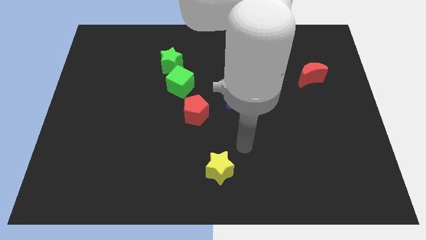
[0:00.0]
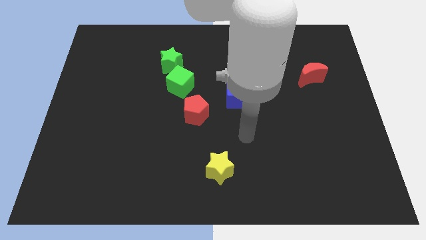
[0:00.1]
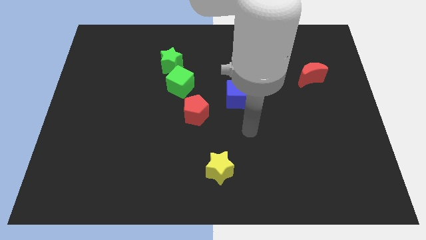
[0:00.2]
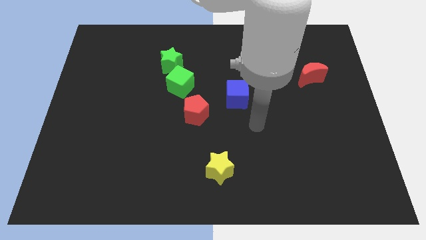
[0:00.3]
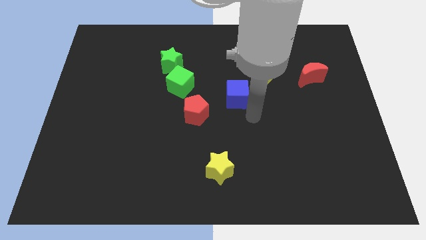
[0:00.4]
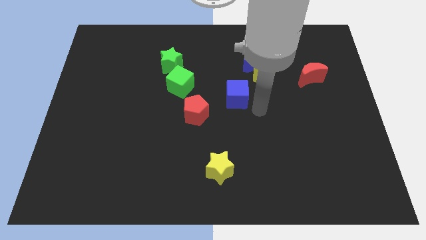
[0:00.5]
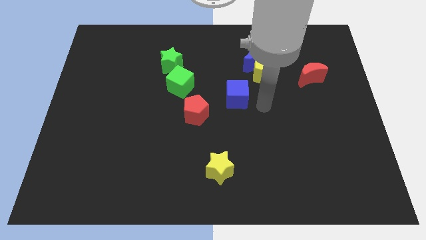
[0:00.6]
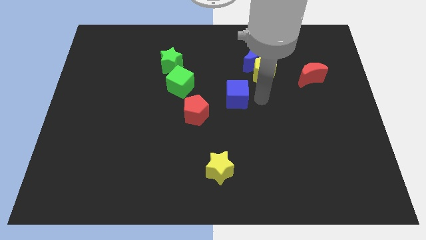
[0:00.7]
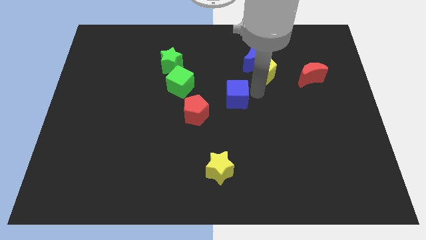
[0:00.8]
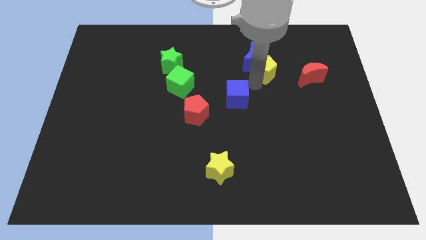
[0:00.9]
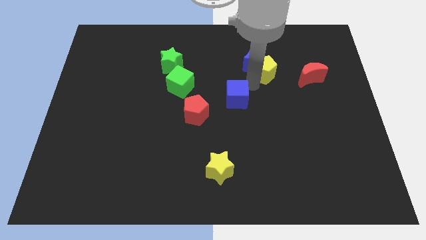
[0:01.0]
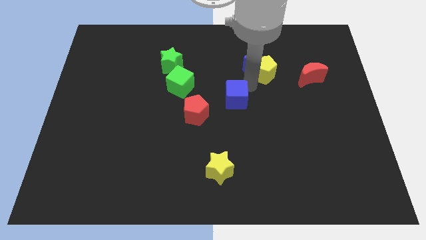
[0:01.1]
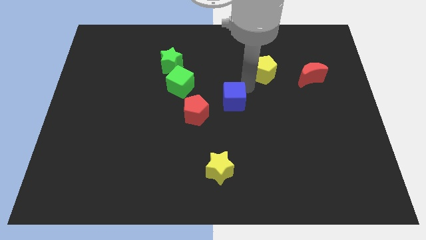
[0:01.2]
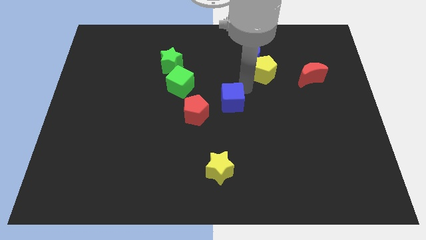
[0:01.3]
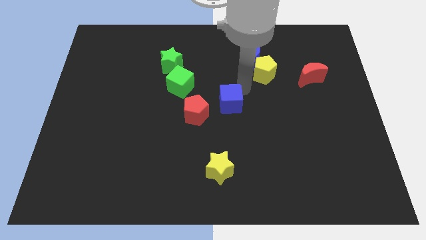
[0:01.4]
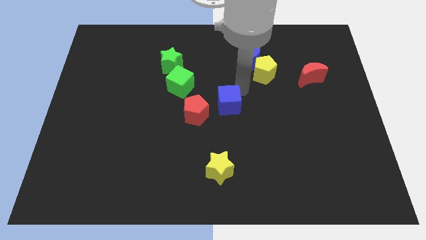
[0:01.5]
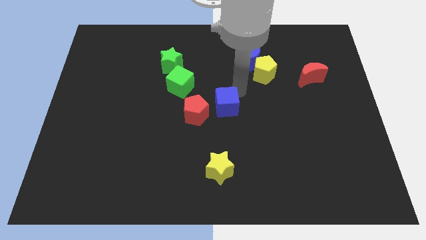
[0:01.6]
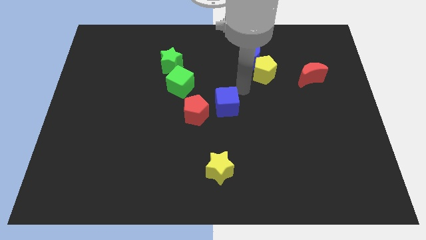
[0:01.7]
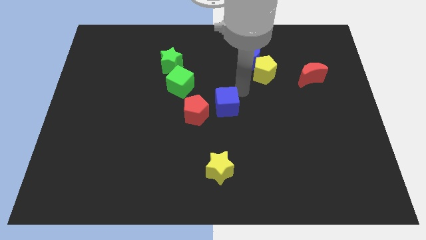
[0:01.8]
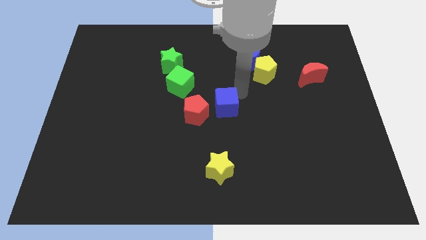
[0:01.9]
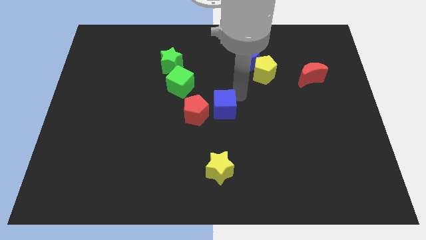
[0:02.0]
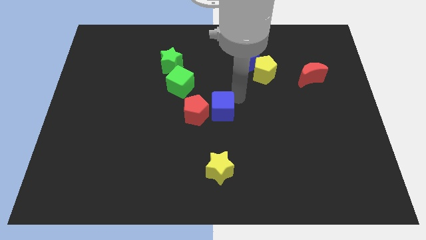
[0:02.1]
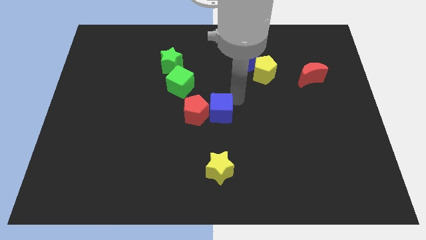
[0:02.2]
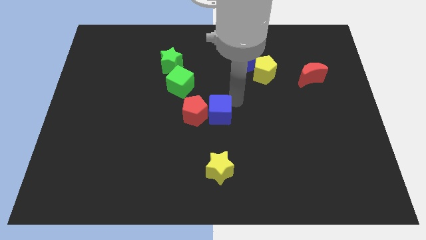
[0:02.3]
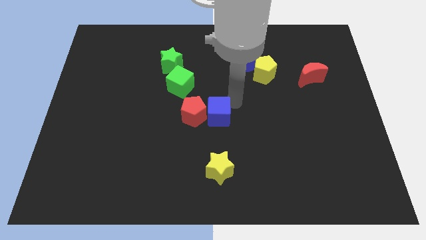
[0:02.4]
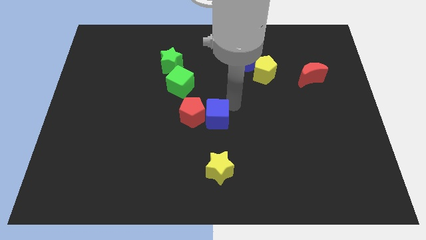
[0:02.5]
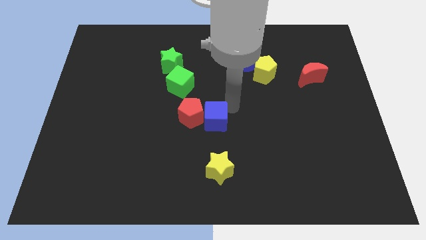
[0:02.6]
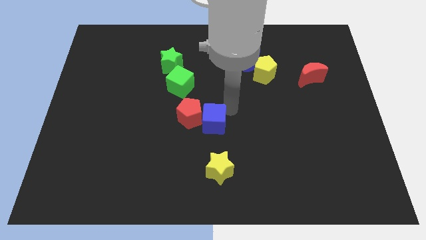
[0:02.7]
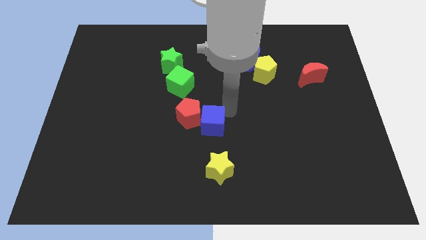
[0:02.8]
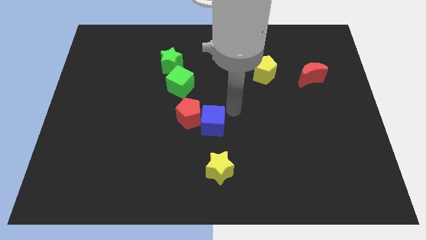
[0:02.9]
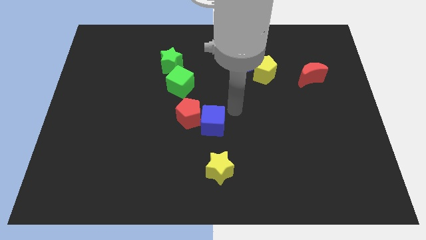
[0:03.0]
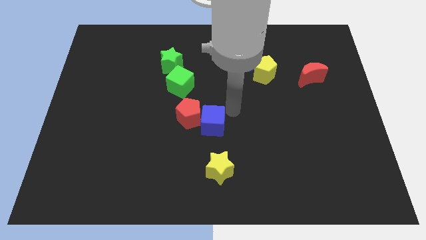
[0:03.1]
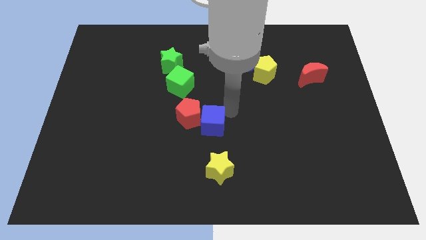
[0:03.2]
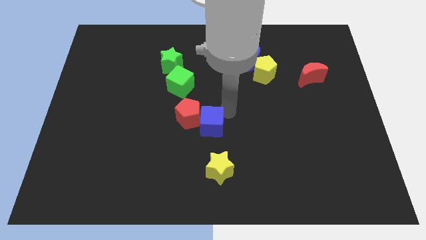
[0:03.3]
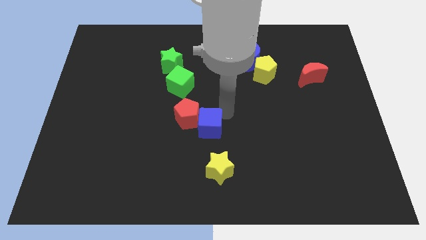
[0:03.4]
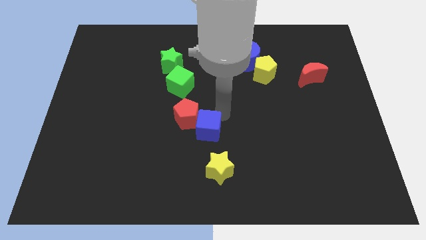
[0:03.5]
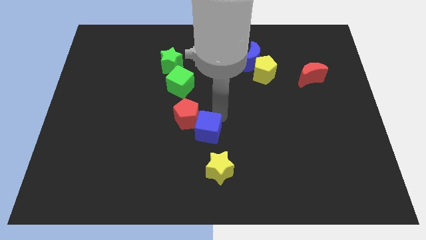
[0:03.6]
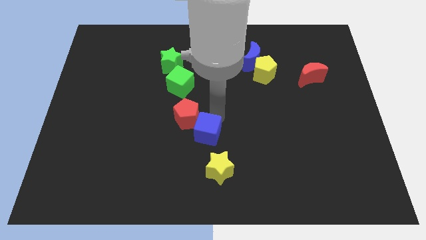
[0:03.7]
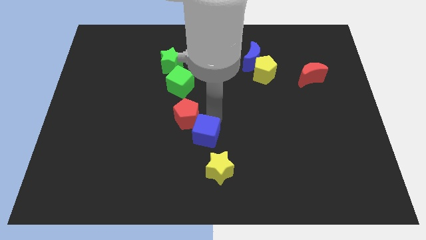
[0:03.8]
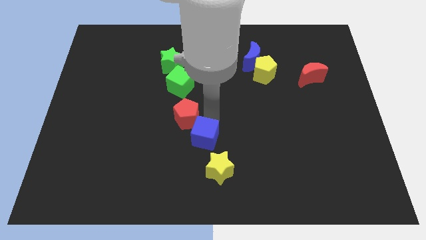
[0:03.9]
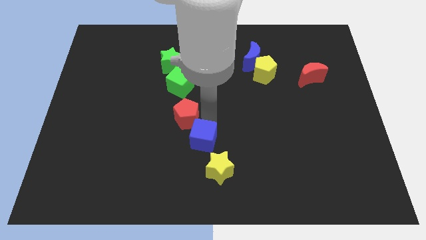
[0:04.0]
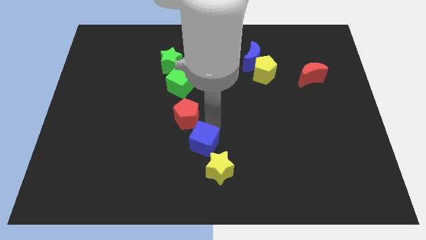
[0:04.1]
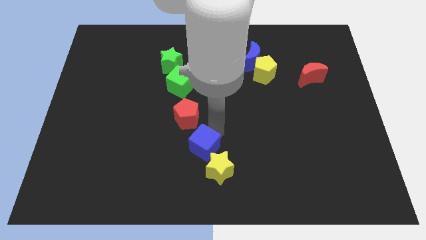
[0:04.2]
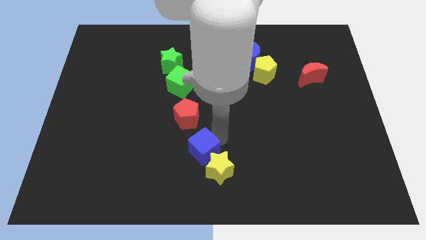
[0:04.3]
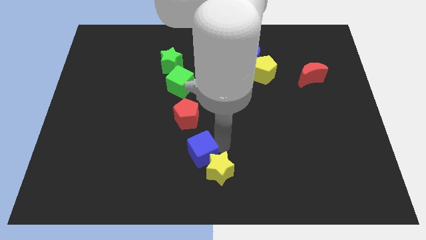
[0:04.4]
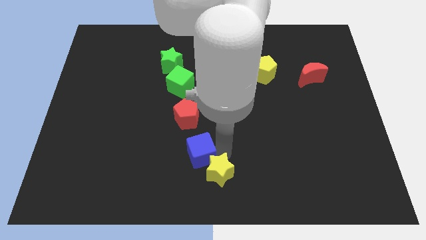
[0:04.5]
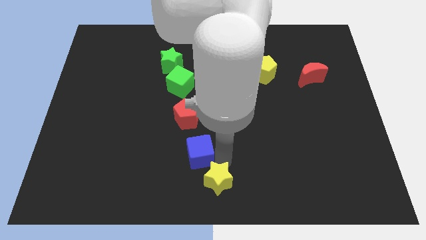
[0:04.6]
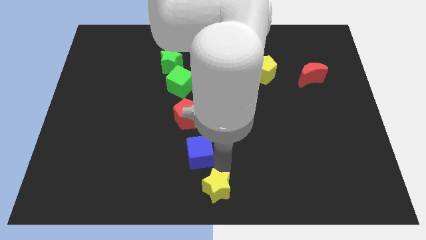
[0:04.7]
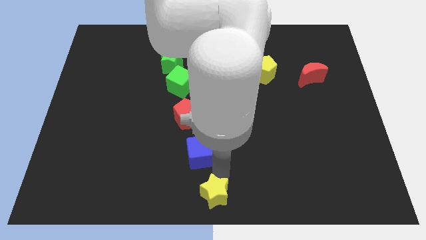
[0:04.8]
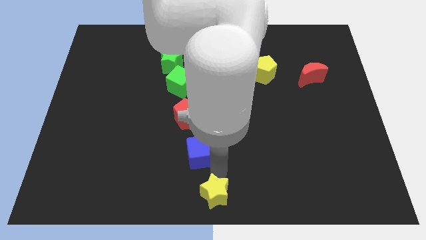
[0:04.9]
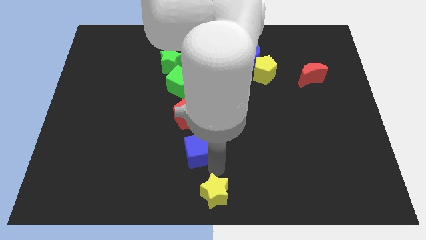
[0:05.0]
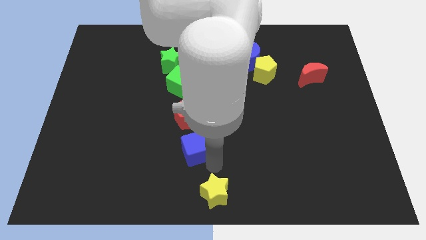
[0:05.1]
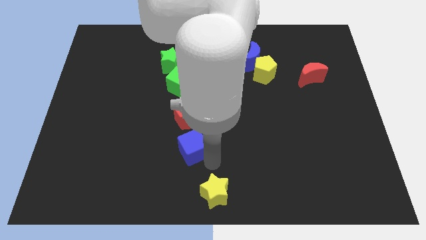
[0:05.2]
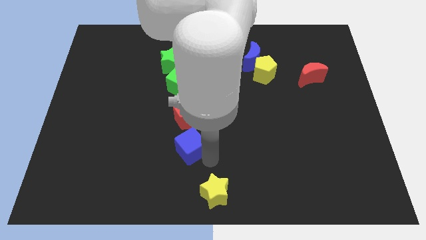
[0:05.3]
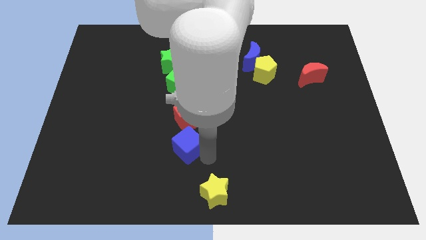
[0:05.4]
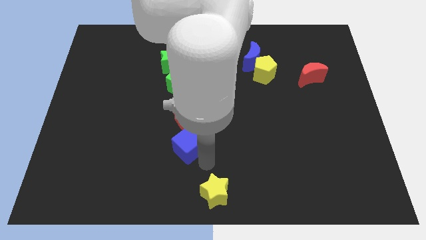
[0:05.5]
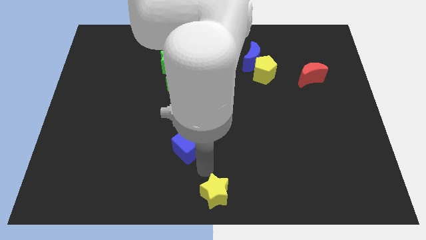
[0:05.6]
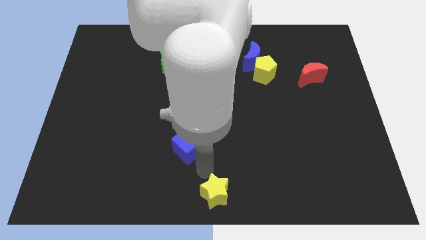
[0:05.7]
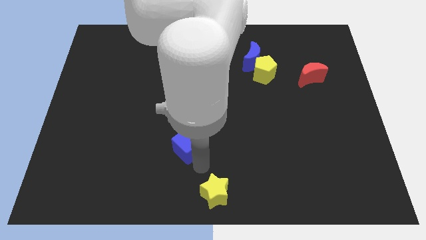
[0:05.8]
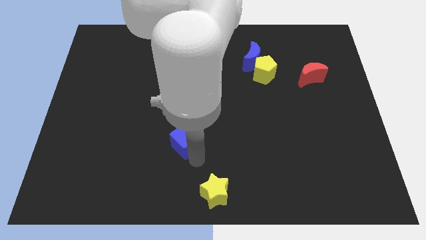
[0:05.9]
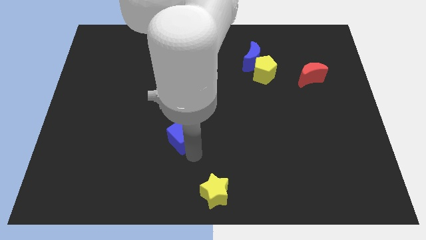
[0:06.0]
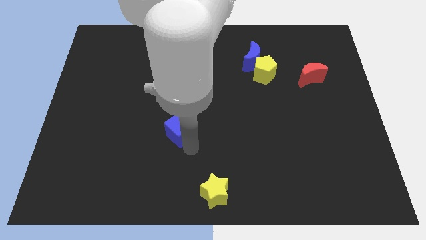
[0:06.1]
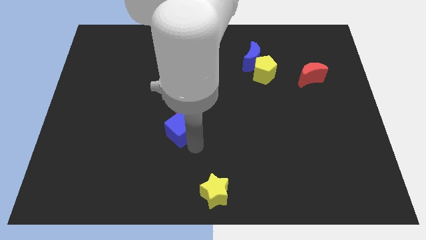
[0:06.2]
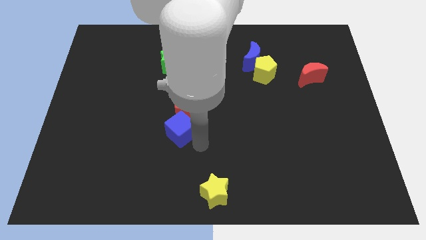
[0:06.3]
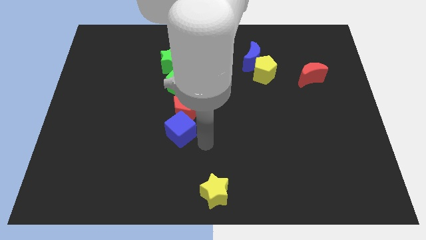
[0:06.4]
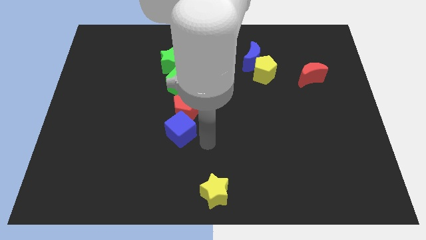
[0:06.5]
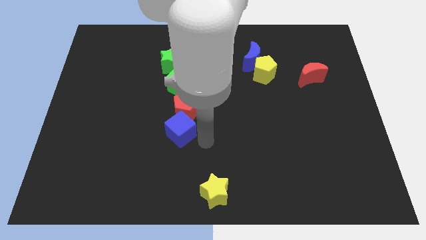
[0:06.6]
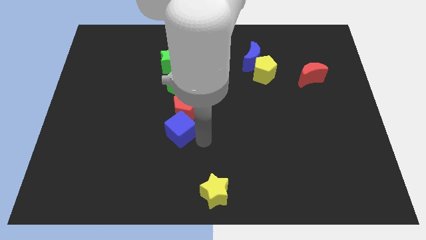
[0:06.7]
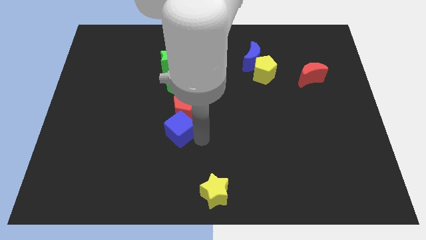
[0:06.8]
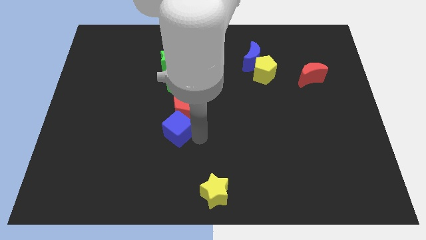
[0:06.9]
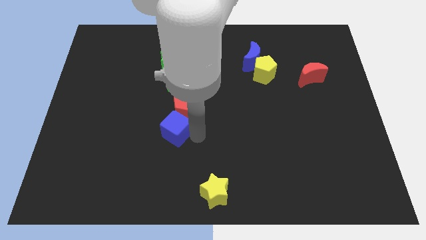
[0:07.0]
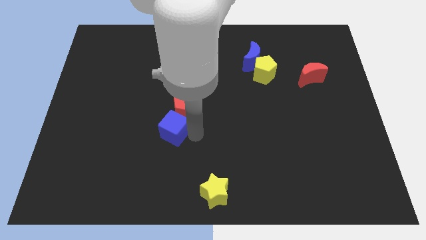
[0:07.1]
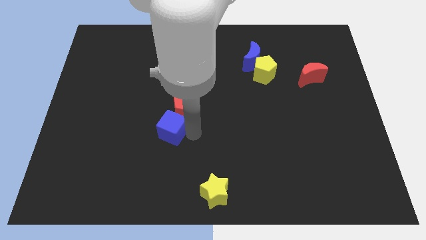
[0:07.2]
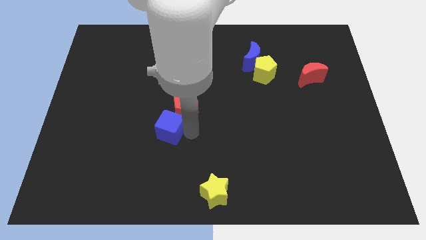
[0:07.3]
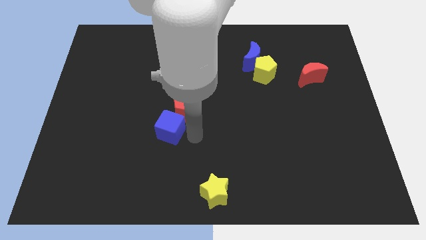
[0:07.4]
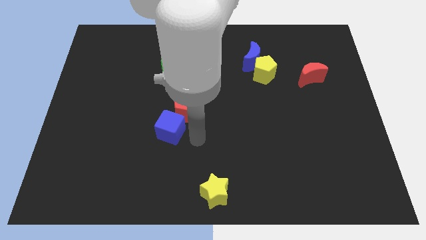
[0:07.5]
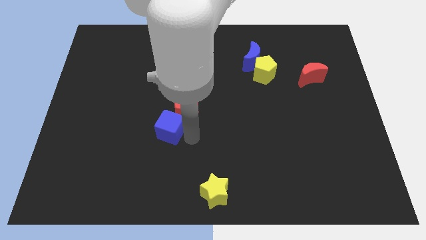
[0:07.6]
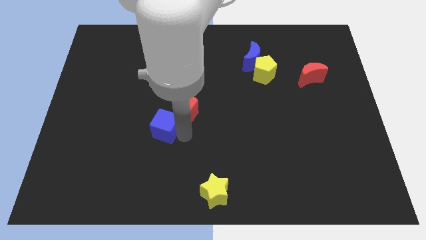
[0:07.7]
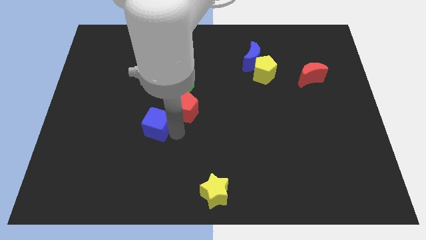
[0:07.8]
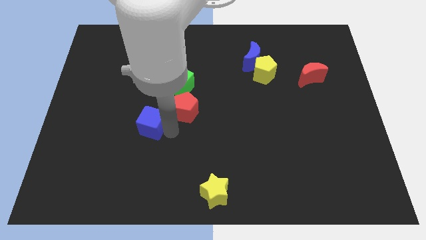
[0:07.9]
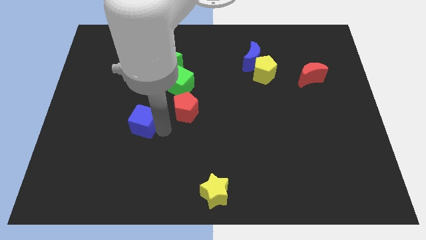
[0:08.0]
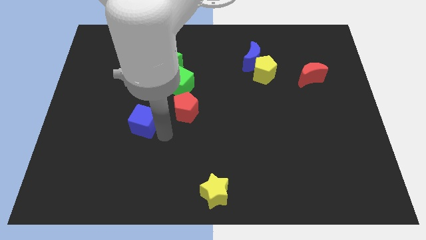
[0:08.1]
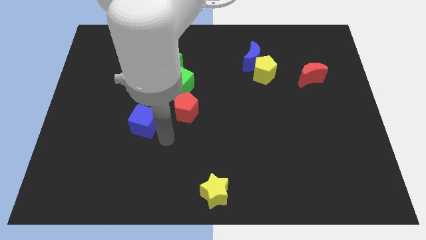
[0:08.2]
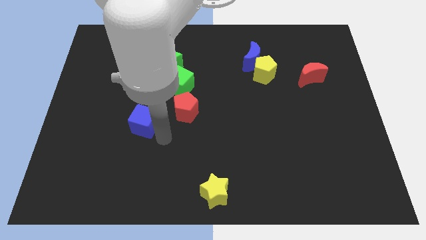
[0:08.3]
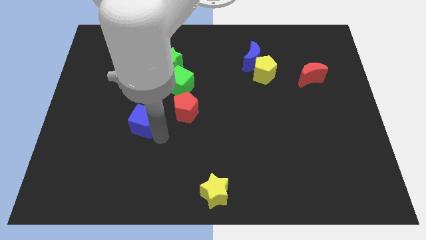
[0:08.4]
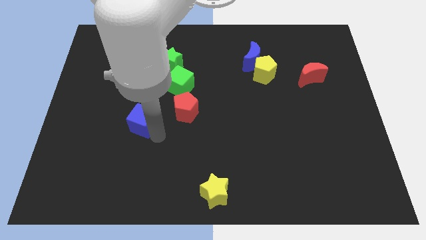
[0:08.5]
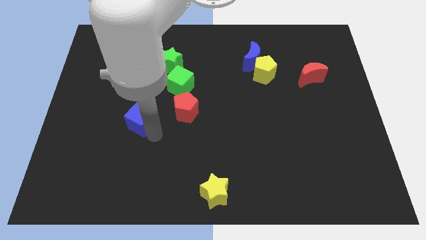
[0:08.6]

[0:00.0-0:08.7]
move the blue cube to the left
